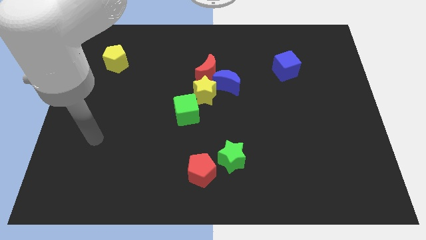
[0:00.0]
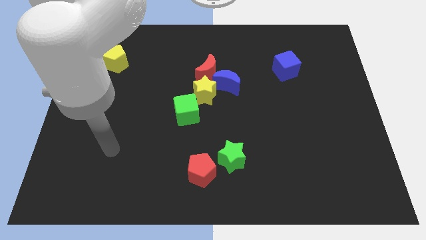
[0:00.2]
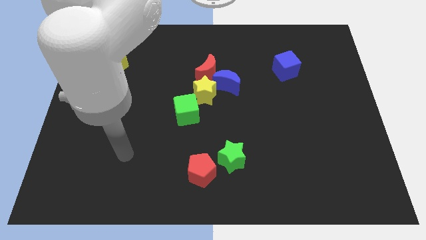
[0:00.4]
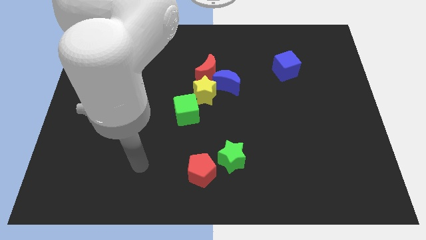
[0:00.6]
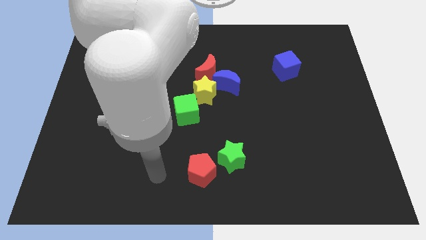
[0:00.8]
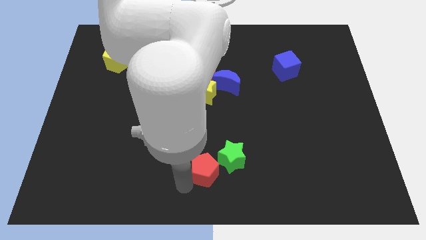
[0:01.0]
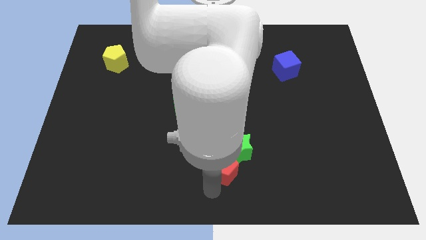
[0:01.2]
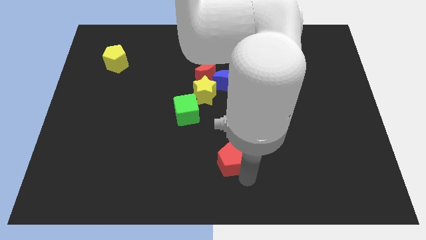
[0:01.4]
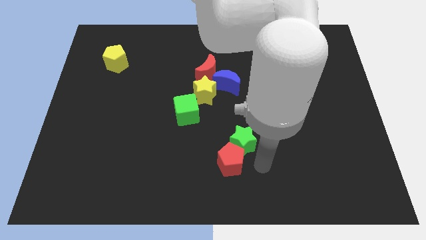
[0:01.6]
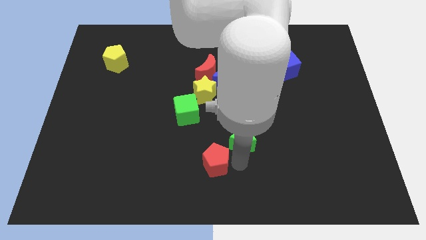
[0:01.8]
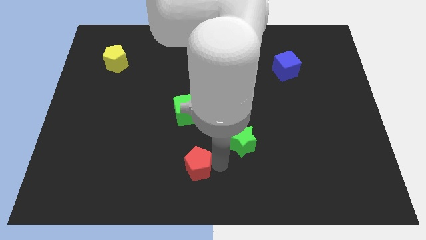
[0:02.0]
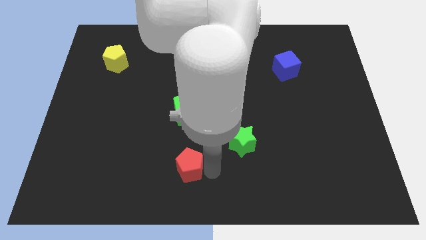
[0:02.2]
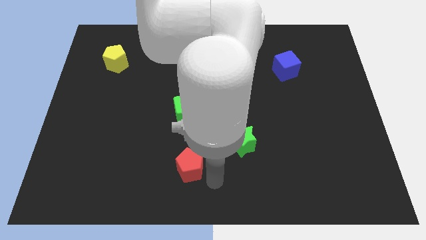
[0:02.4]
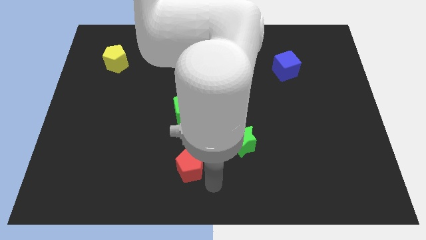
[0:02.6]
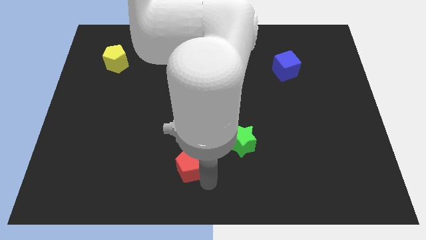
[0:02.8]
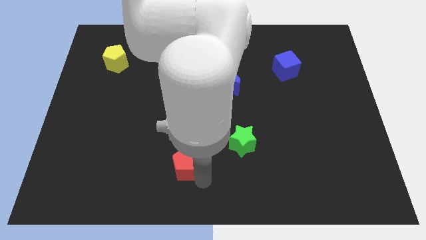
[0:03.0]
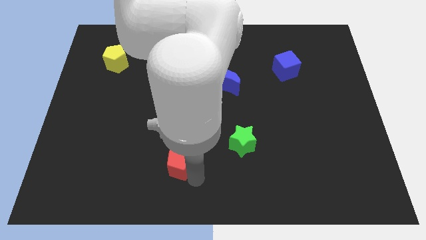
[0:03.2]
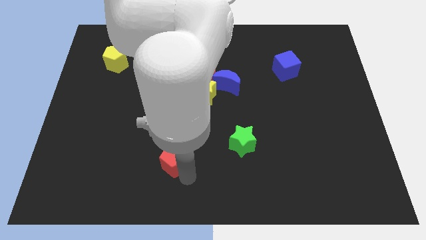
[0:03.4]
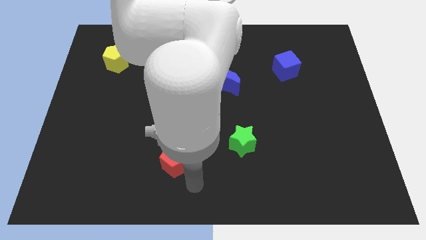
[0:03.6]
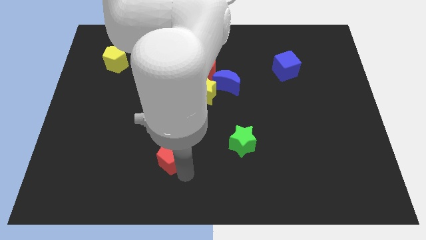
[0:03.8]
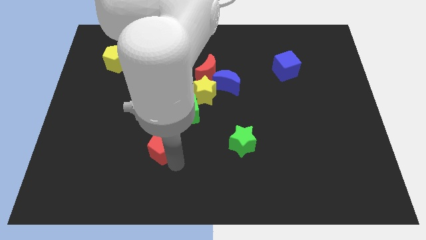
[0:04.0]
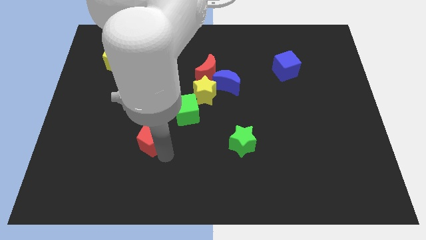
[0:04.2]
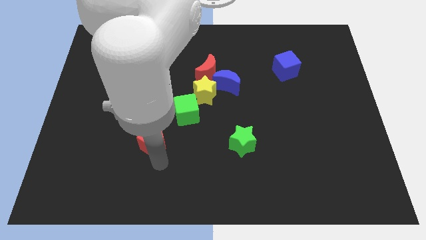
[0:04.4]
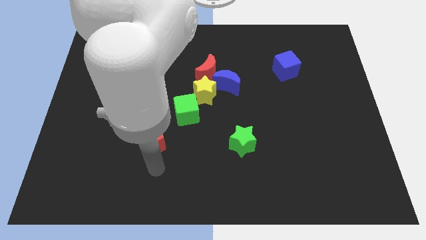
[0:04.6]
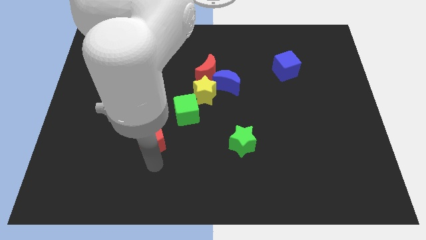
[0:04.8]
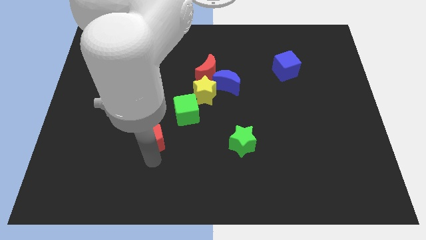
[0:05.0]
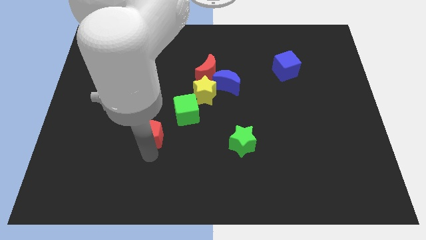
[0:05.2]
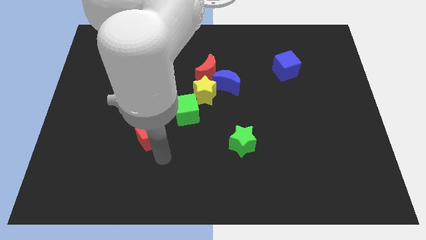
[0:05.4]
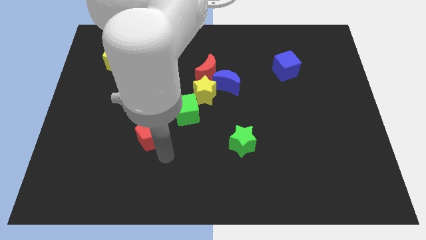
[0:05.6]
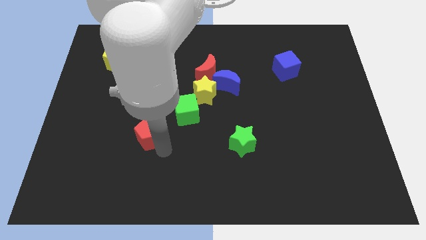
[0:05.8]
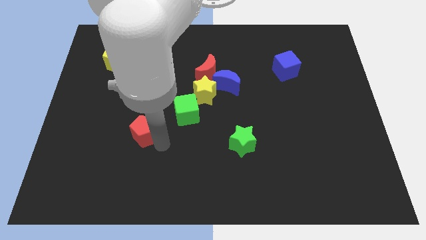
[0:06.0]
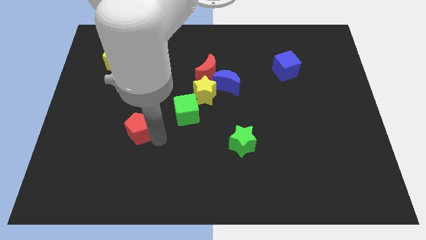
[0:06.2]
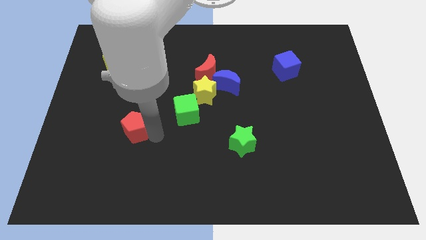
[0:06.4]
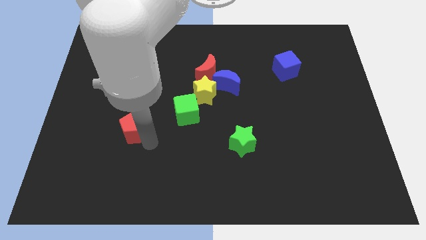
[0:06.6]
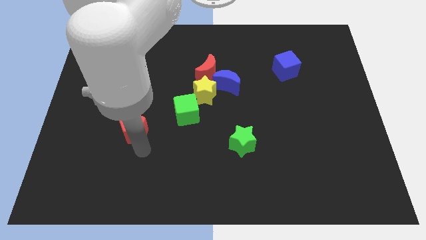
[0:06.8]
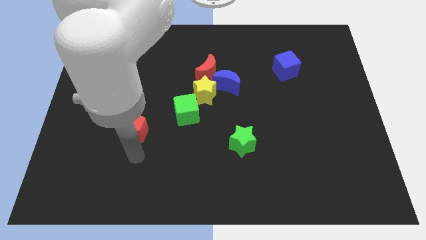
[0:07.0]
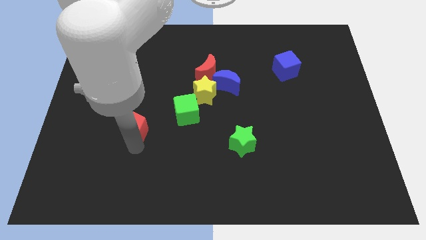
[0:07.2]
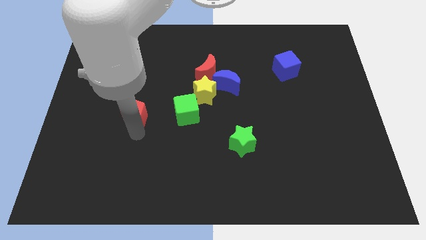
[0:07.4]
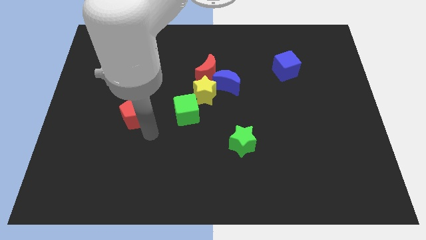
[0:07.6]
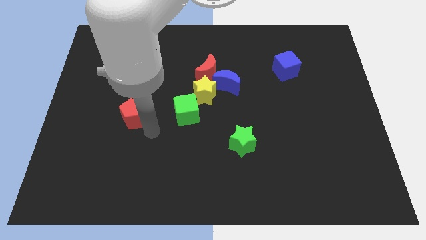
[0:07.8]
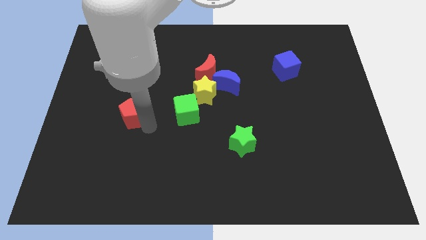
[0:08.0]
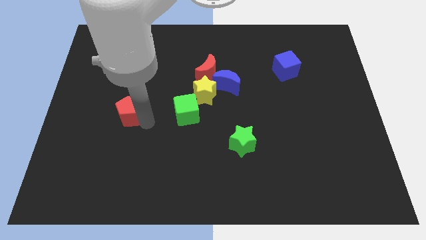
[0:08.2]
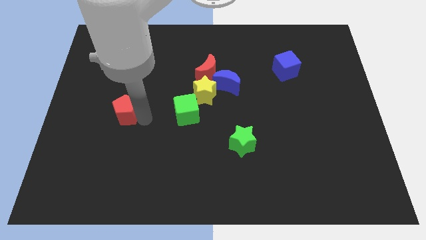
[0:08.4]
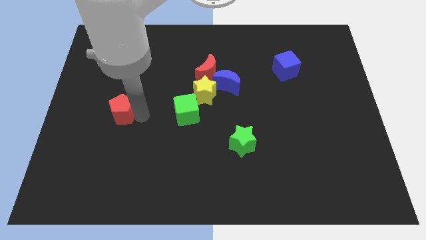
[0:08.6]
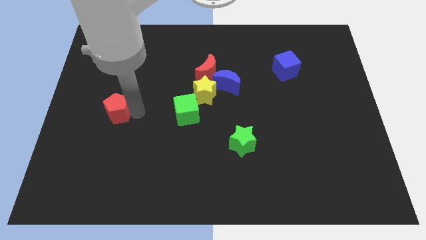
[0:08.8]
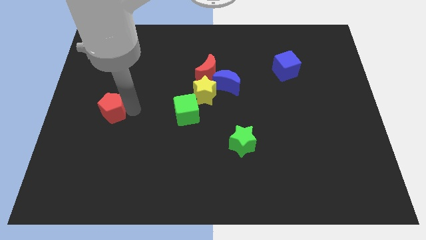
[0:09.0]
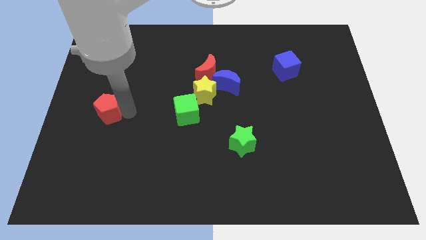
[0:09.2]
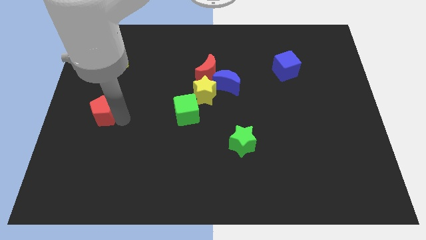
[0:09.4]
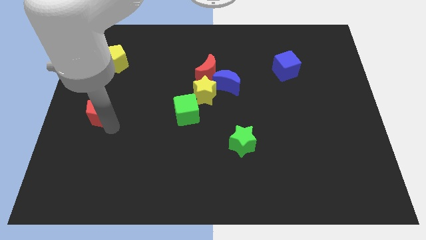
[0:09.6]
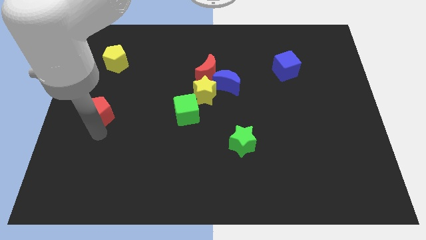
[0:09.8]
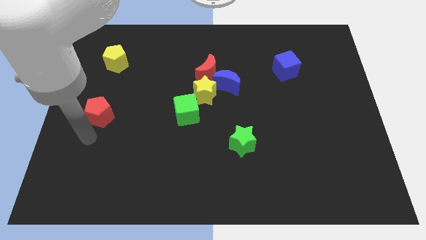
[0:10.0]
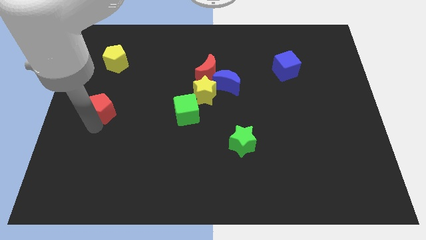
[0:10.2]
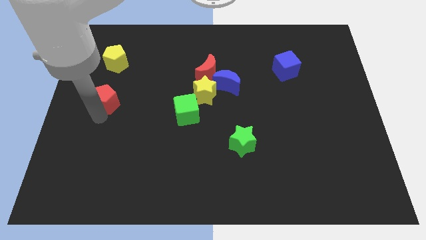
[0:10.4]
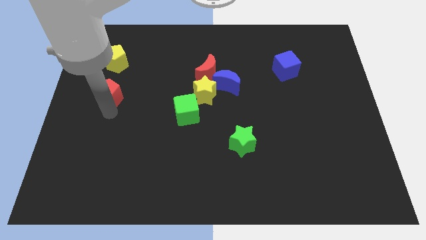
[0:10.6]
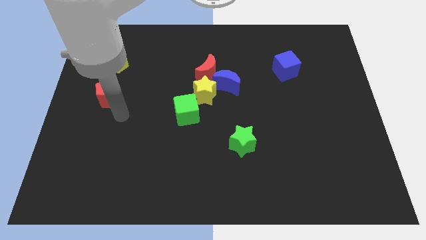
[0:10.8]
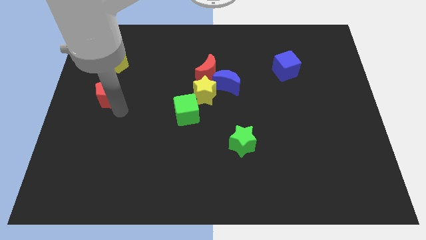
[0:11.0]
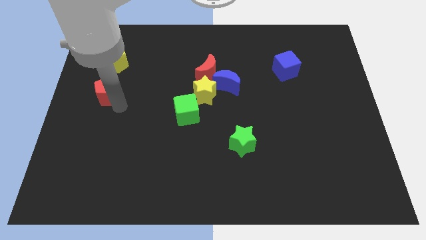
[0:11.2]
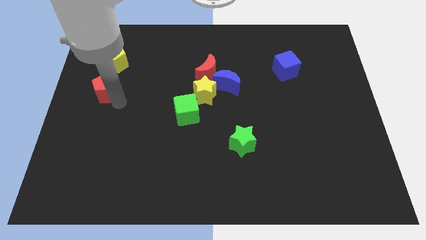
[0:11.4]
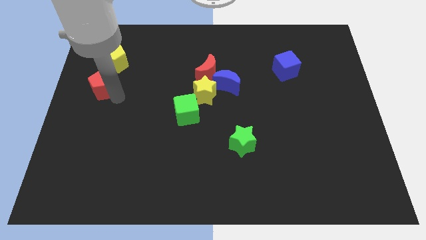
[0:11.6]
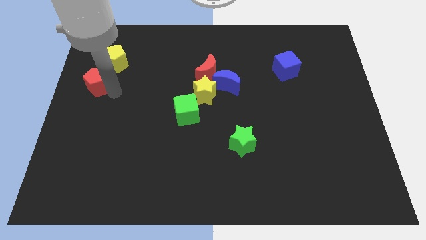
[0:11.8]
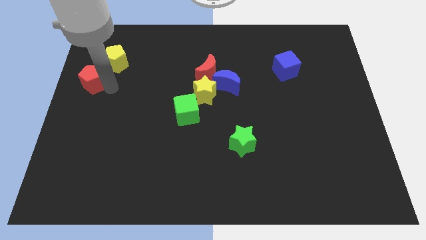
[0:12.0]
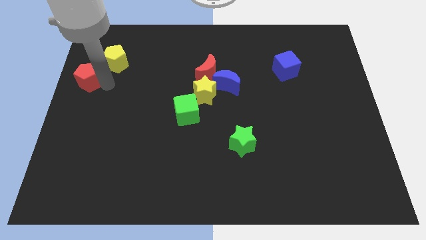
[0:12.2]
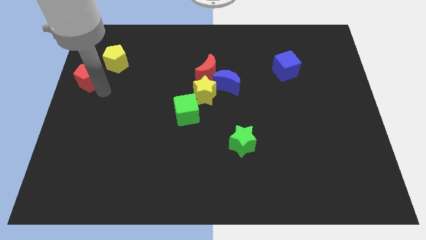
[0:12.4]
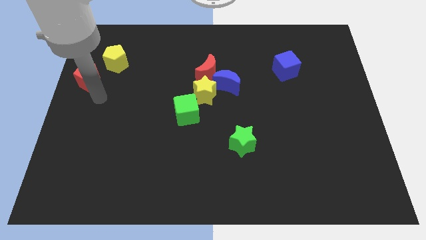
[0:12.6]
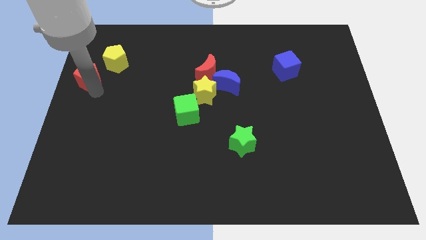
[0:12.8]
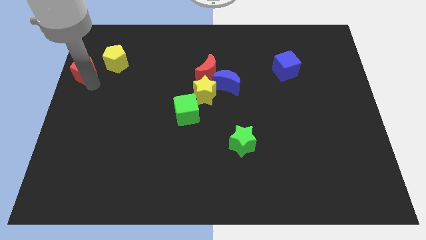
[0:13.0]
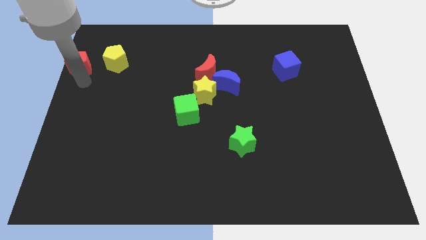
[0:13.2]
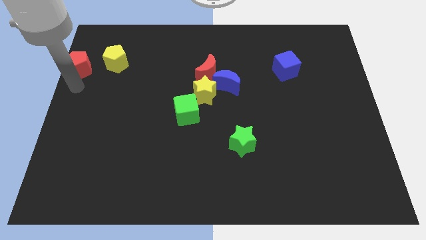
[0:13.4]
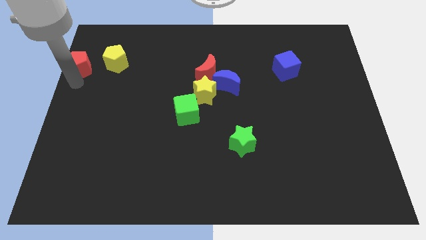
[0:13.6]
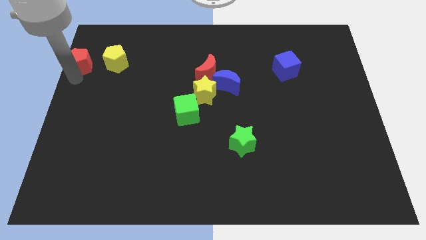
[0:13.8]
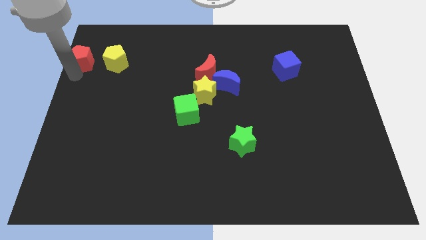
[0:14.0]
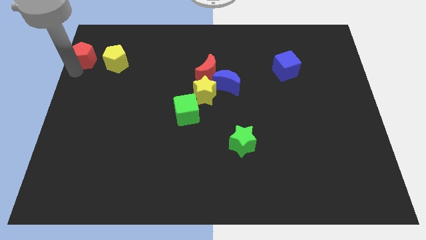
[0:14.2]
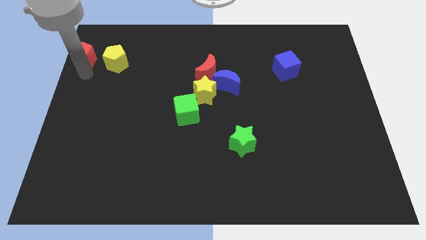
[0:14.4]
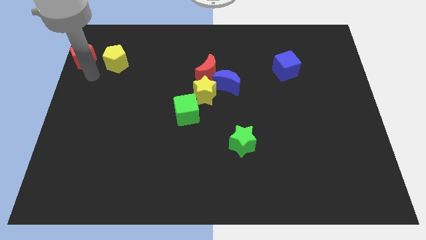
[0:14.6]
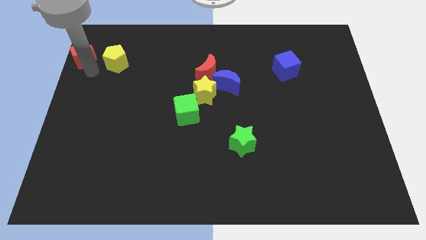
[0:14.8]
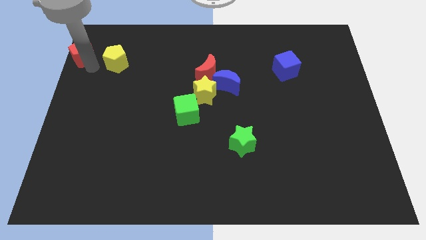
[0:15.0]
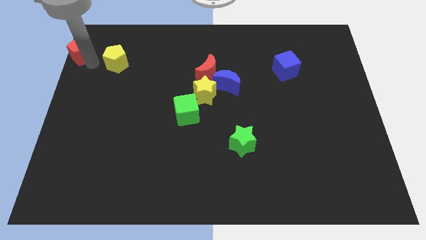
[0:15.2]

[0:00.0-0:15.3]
put the red pentagon to the upper left corner
